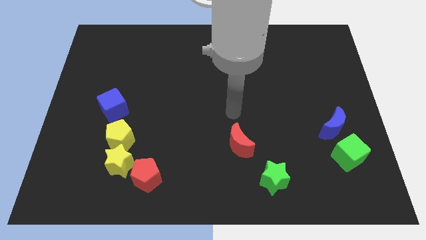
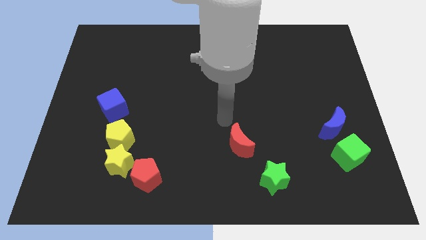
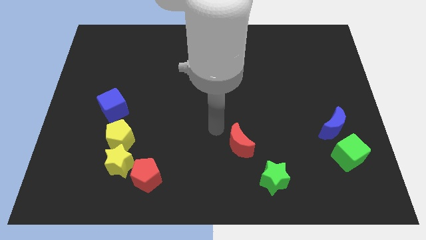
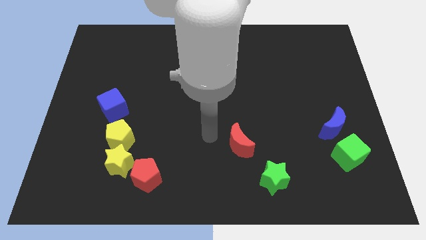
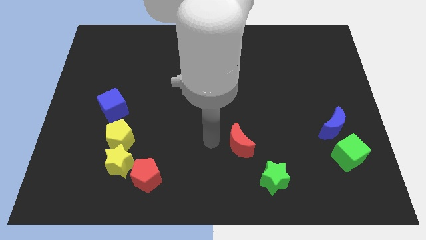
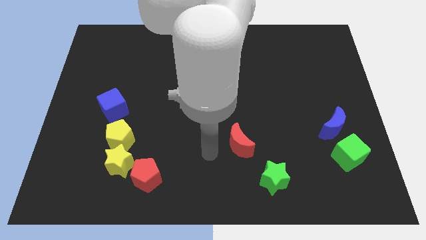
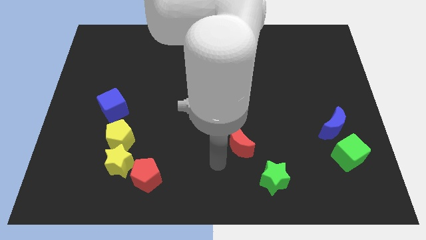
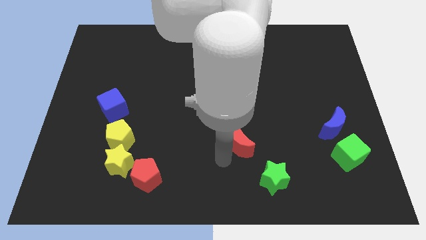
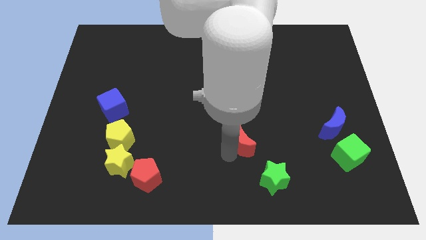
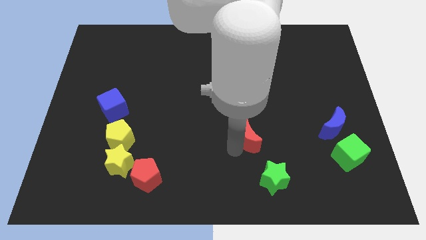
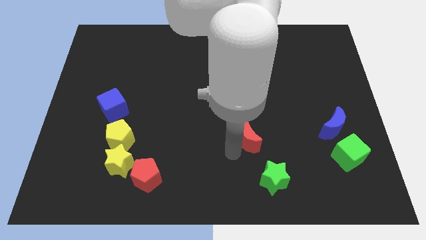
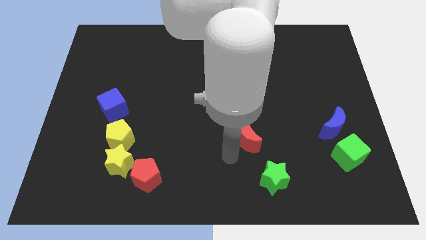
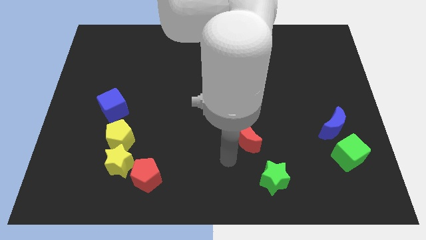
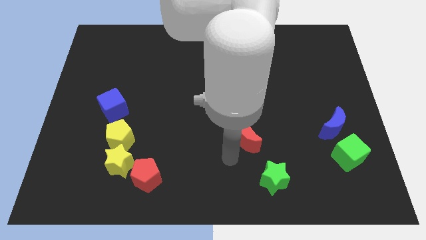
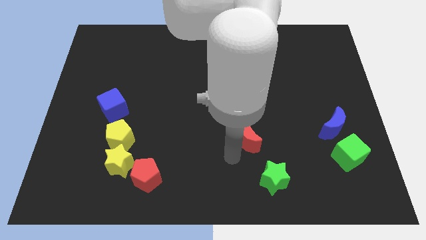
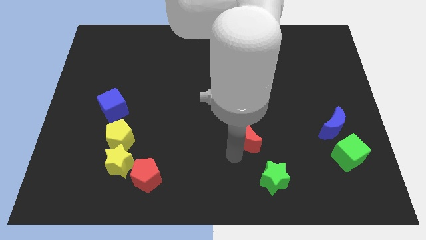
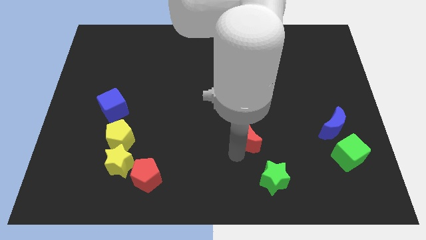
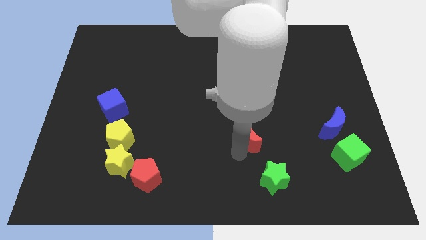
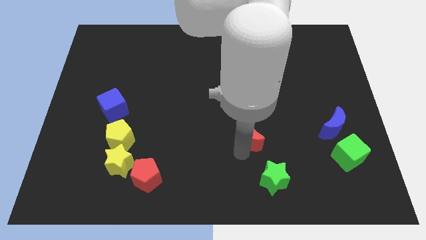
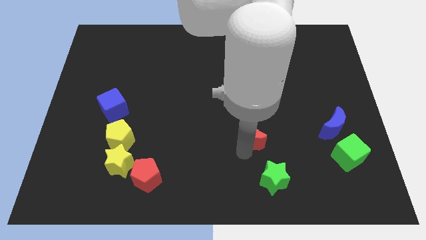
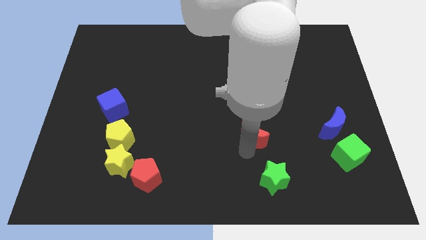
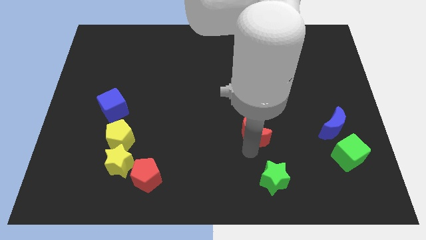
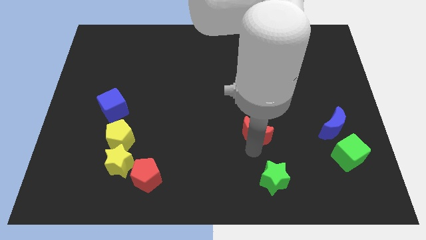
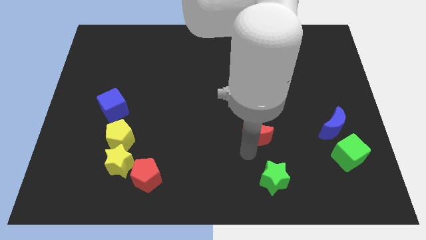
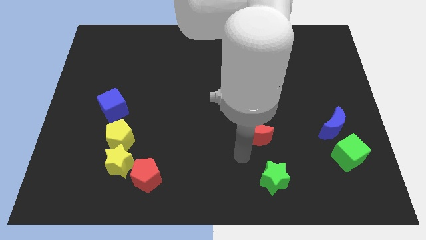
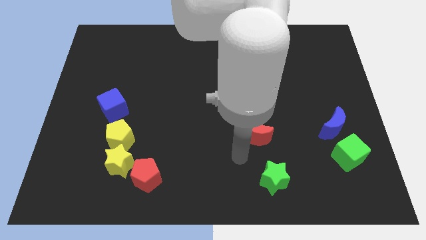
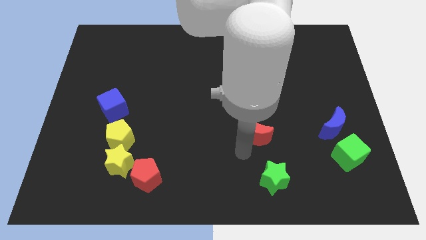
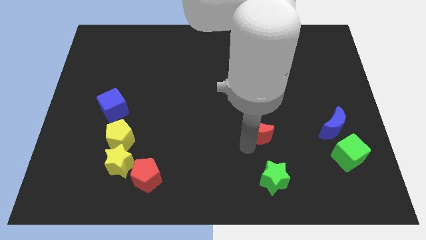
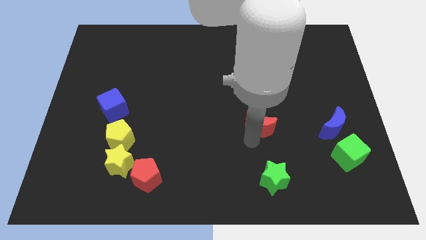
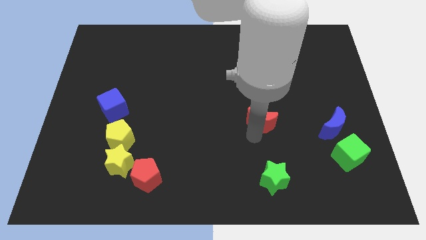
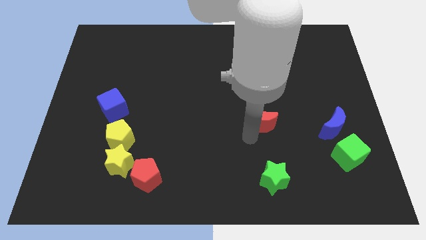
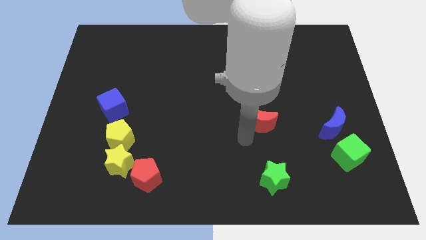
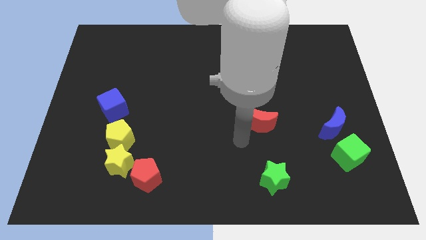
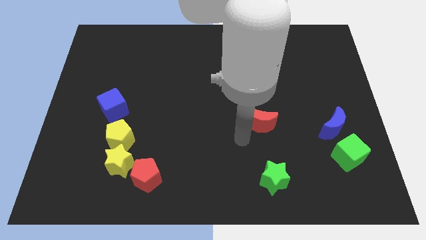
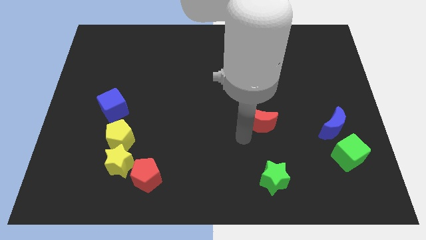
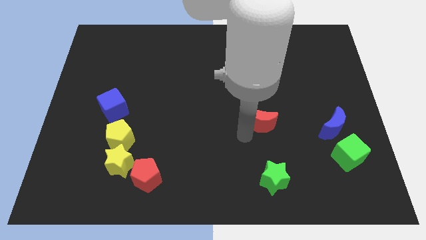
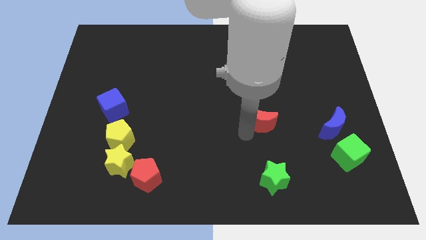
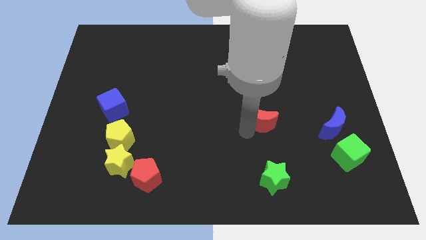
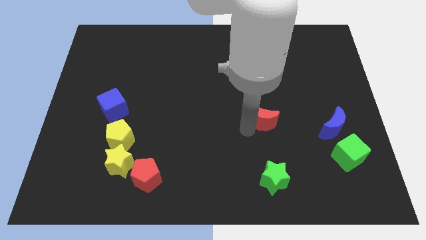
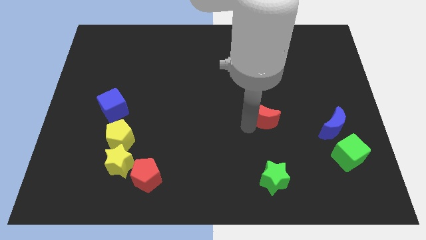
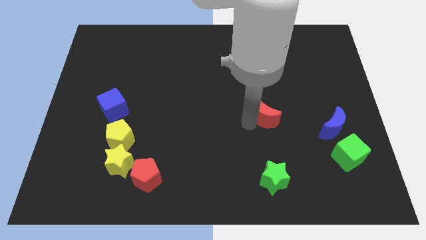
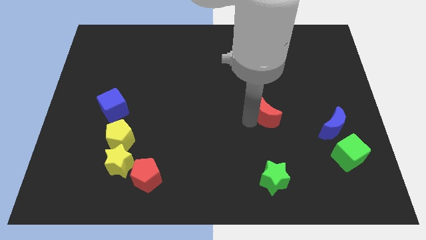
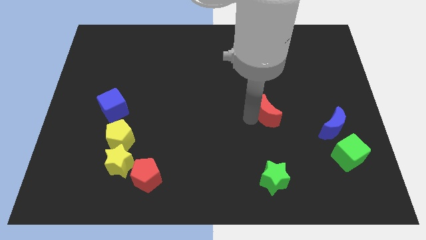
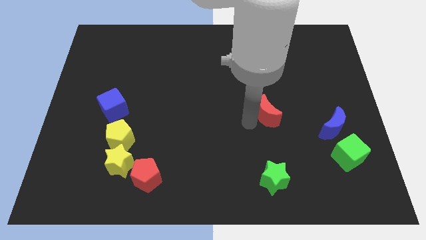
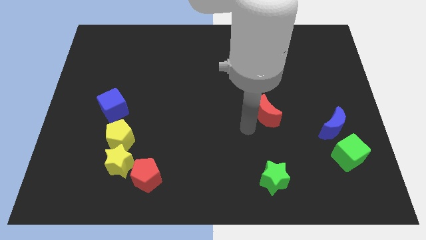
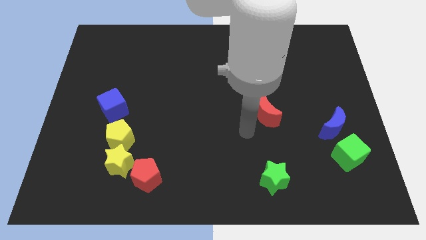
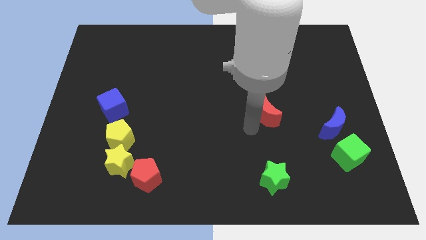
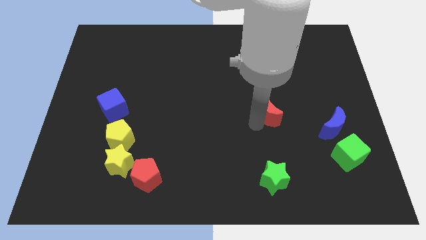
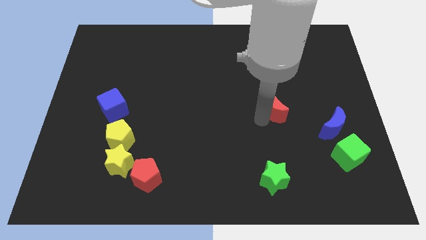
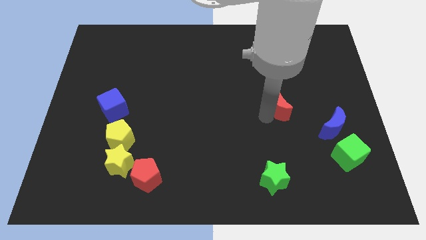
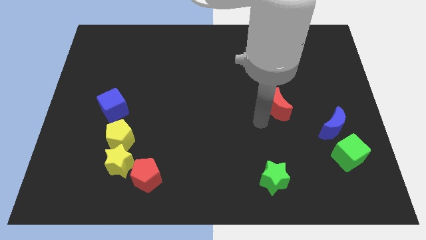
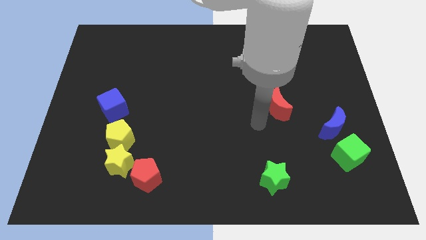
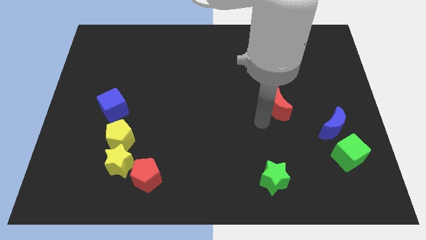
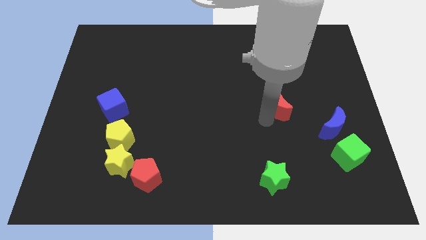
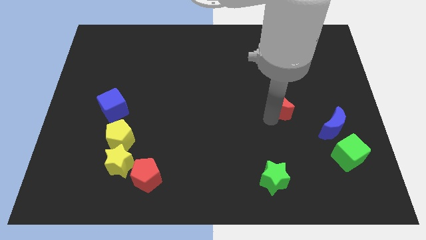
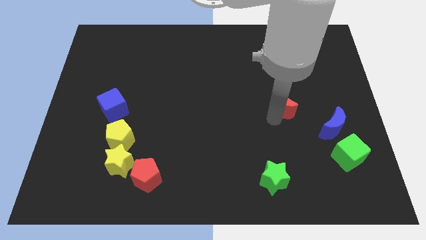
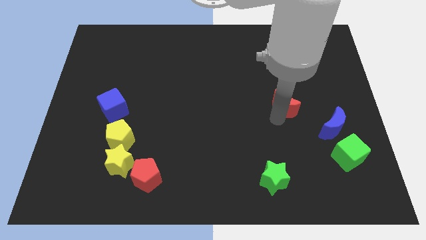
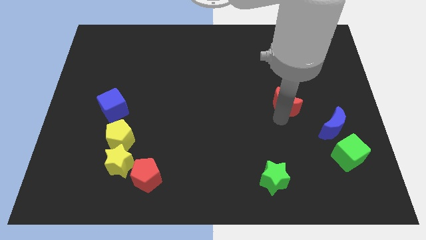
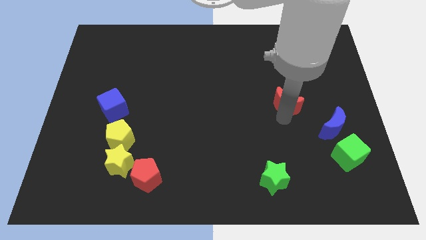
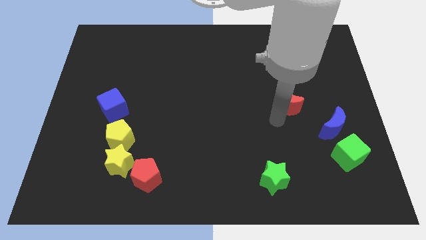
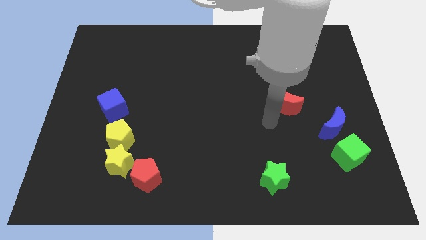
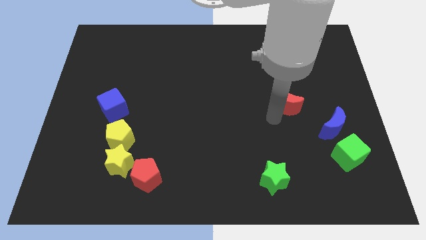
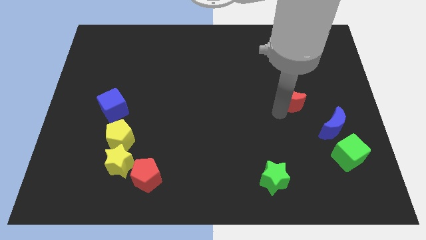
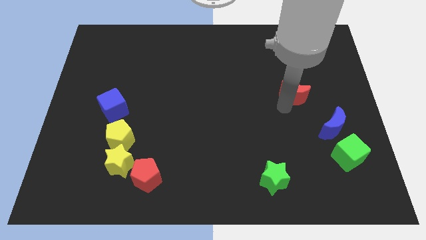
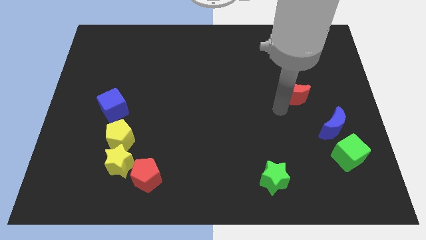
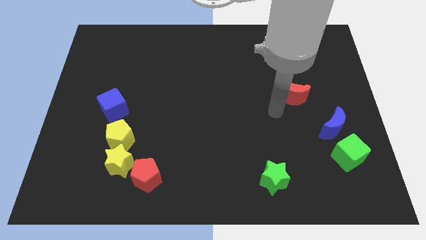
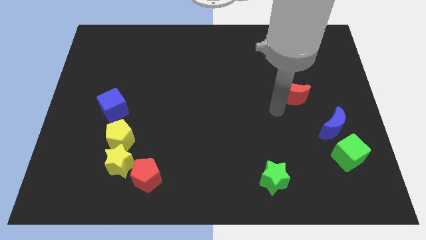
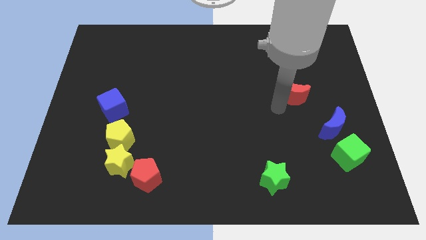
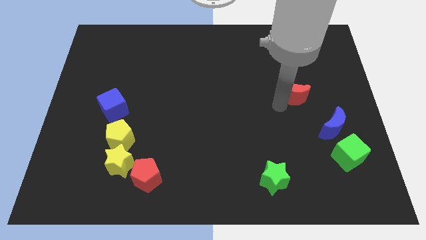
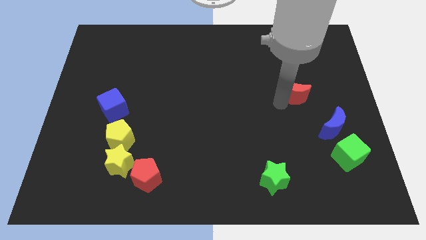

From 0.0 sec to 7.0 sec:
push the red moon up and to the right diagonally

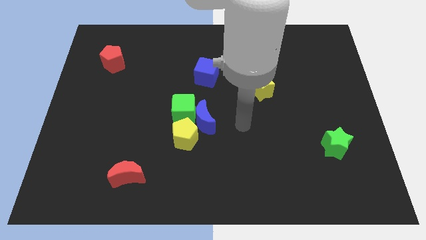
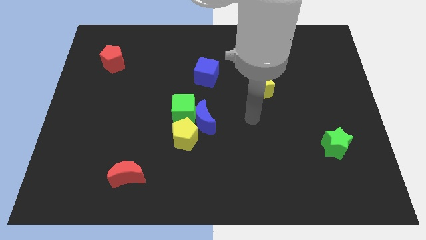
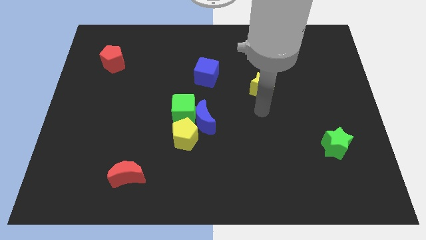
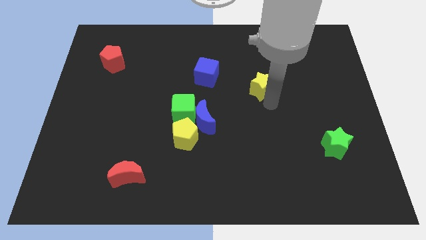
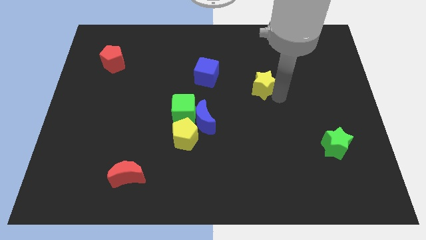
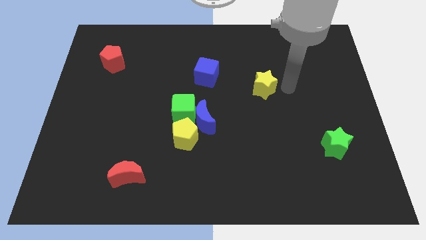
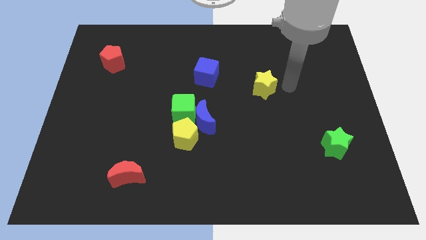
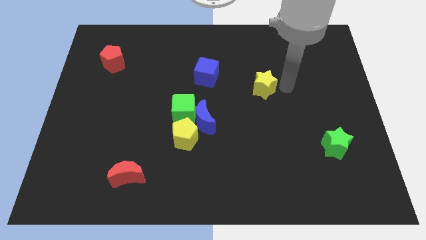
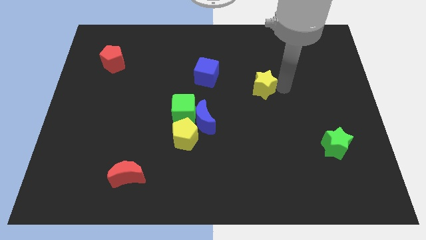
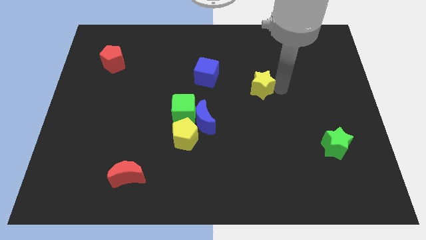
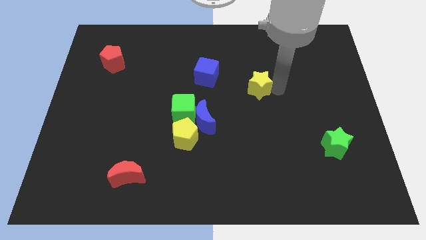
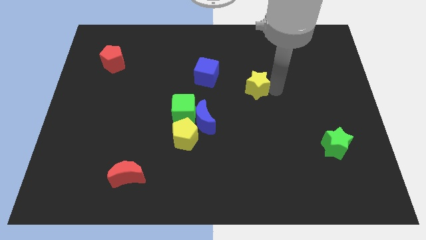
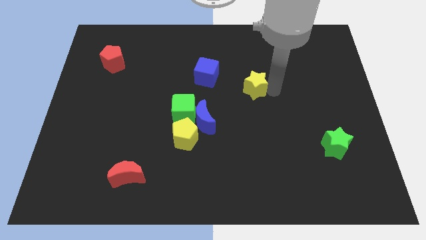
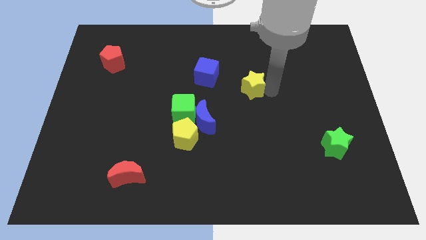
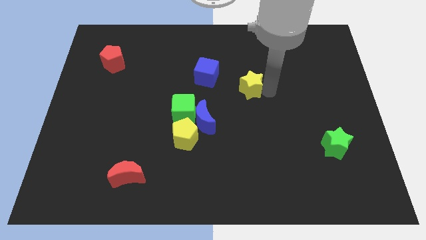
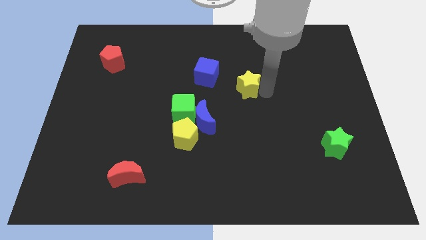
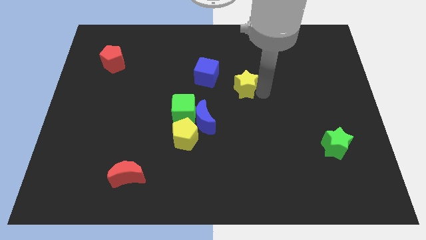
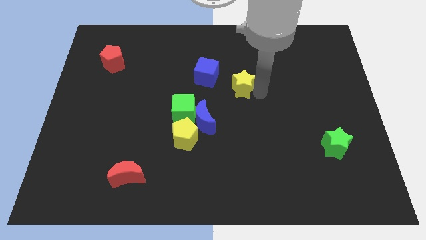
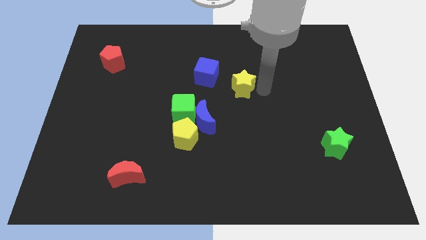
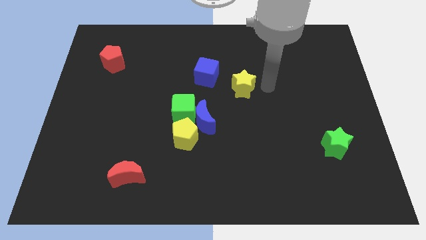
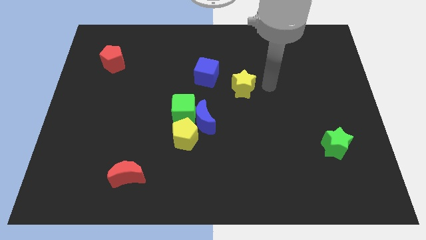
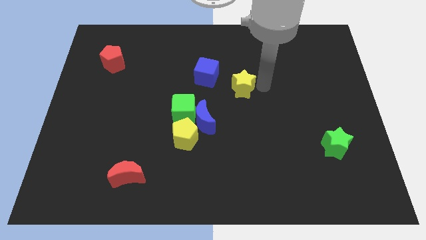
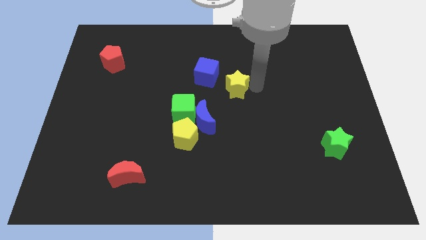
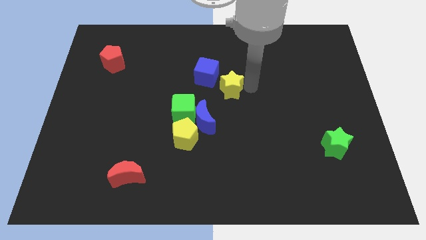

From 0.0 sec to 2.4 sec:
slightly move the yellow star left
